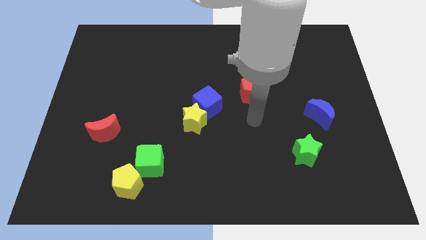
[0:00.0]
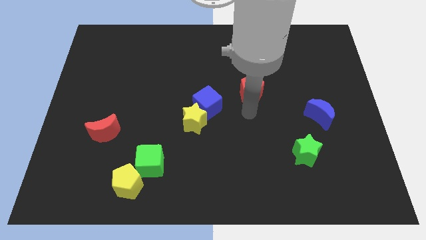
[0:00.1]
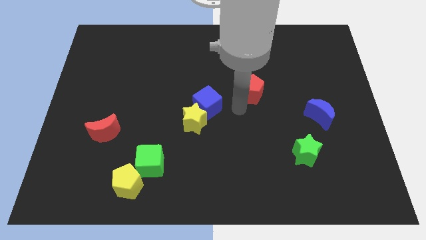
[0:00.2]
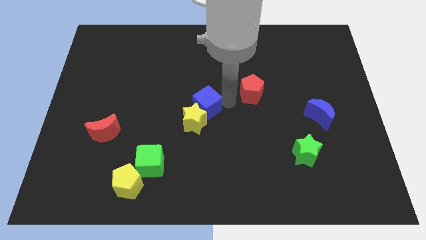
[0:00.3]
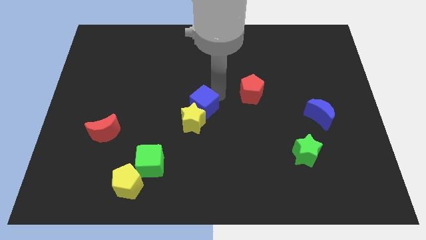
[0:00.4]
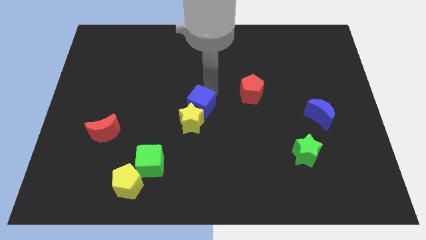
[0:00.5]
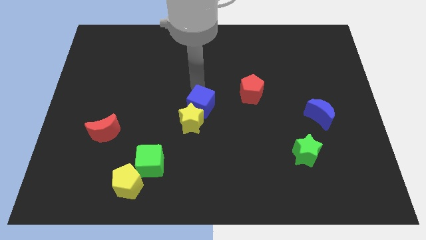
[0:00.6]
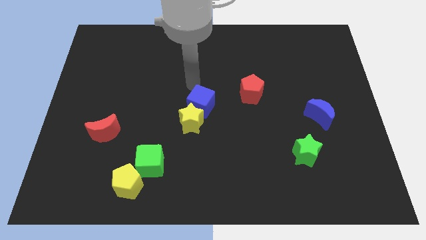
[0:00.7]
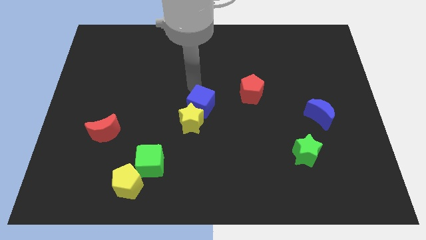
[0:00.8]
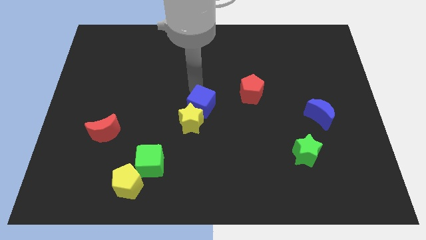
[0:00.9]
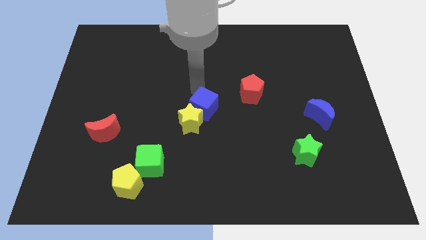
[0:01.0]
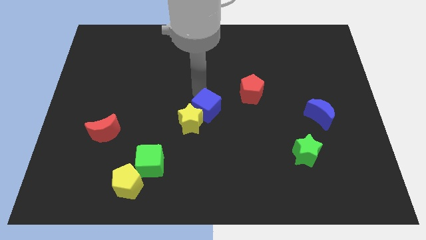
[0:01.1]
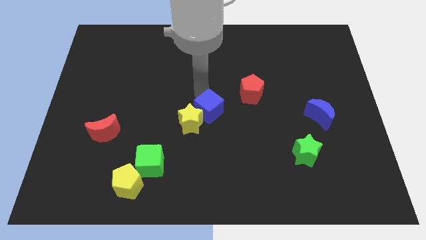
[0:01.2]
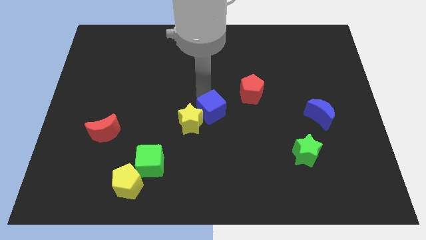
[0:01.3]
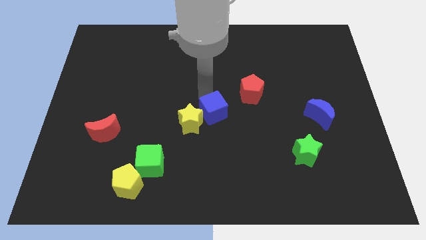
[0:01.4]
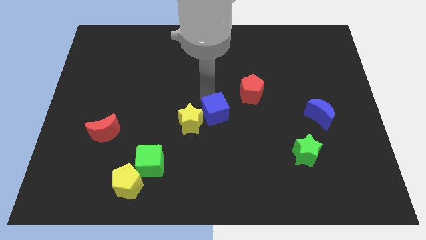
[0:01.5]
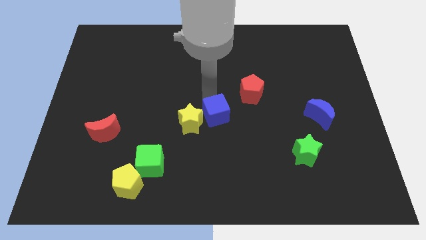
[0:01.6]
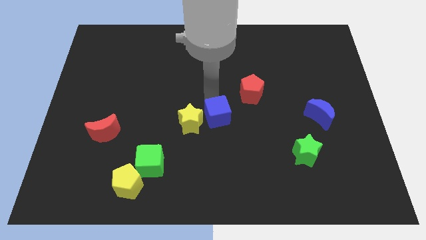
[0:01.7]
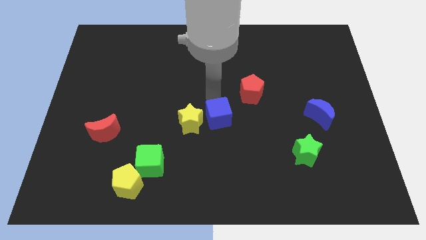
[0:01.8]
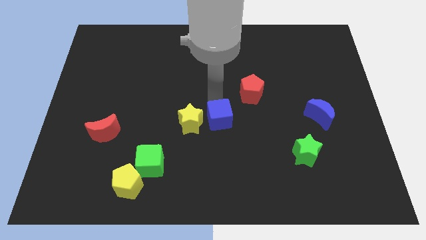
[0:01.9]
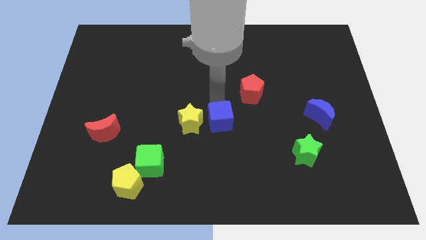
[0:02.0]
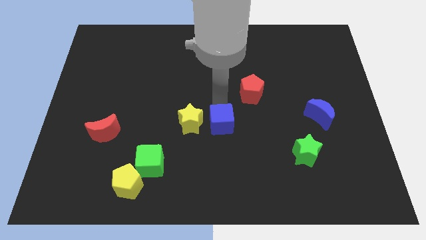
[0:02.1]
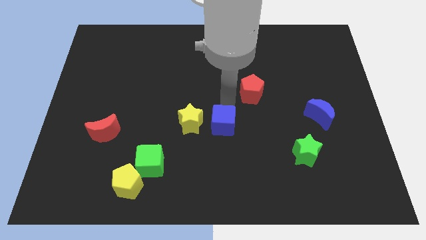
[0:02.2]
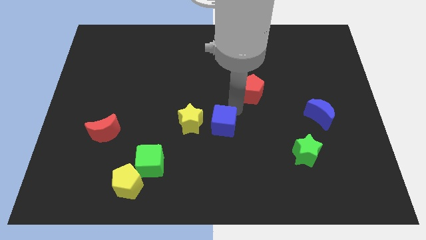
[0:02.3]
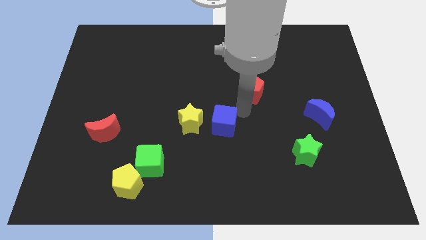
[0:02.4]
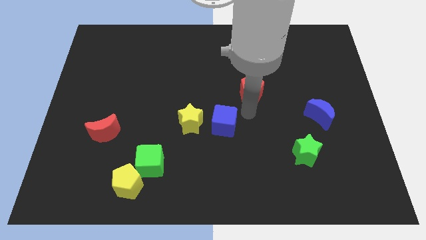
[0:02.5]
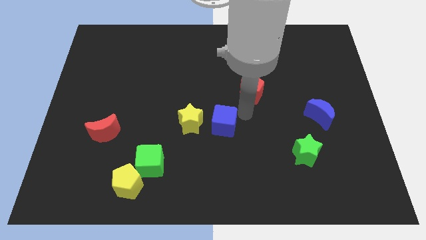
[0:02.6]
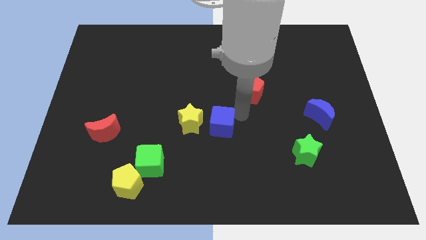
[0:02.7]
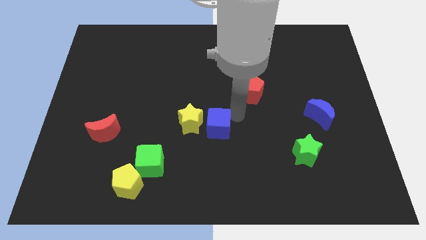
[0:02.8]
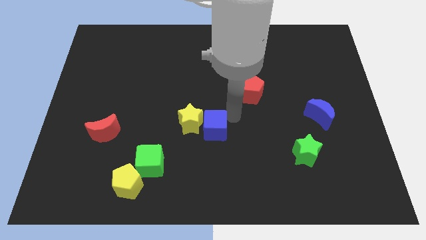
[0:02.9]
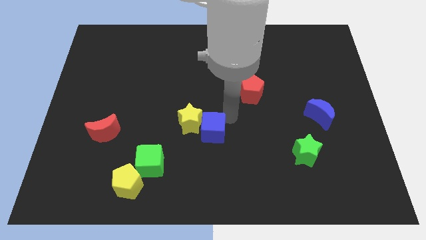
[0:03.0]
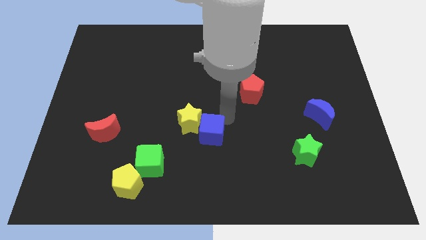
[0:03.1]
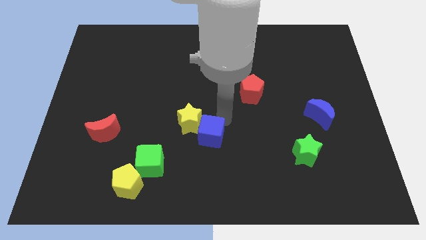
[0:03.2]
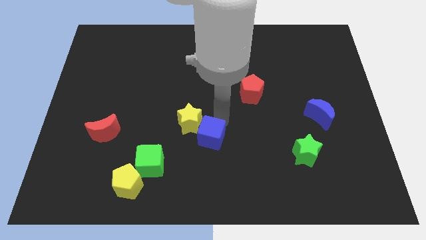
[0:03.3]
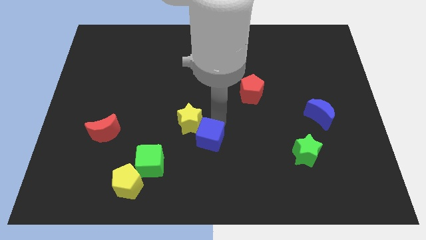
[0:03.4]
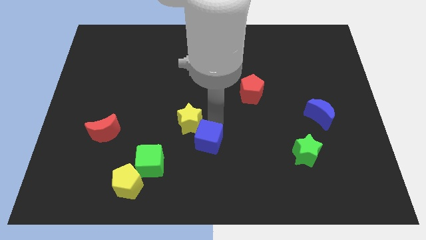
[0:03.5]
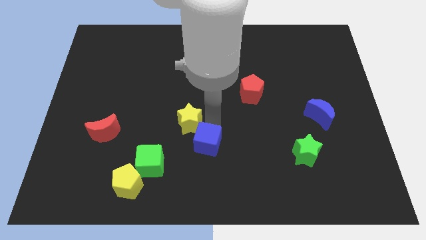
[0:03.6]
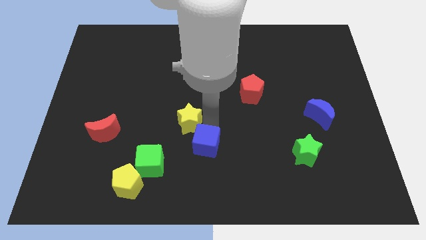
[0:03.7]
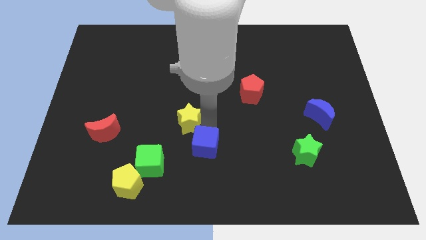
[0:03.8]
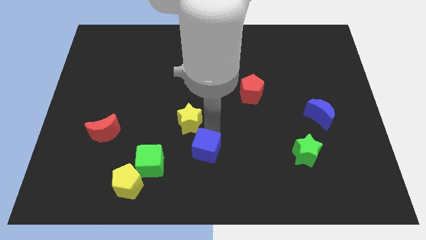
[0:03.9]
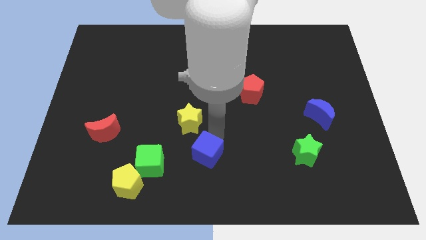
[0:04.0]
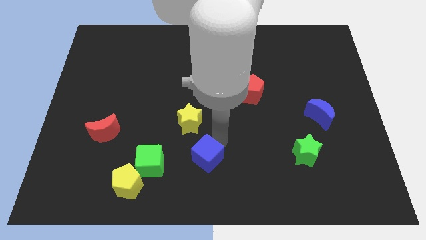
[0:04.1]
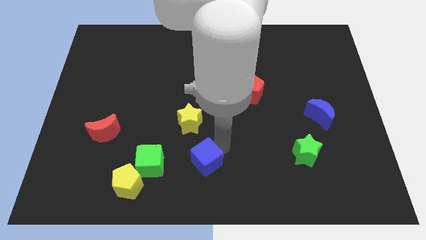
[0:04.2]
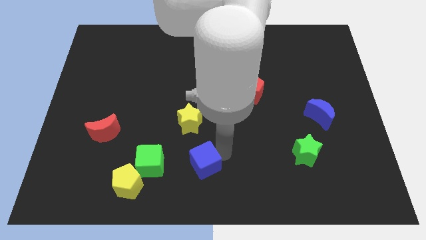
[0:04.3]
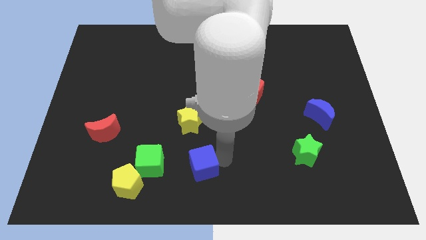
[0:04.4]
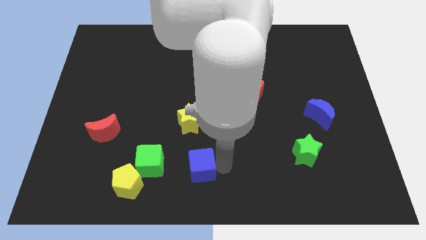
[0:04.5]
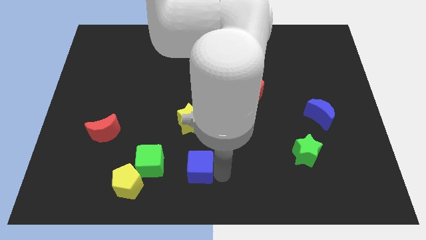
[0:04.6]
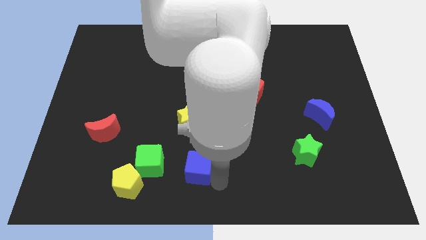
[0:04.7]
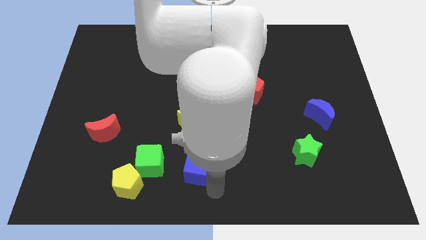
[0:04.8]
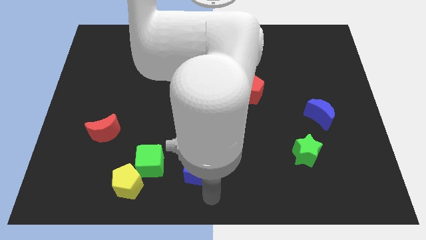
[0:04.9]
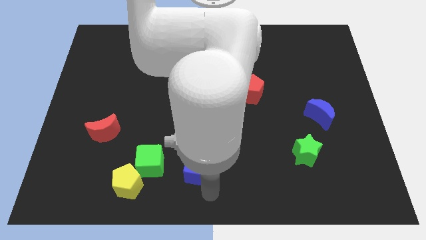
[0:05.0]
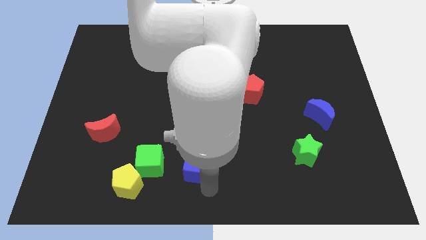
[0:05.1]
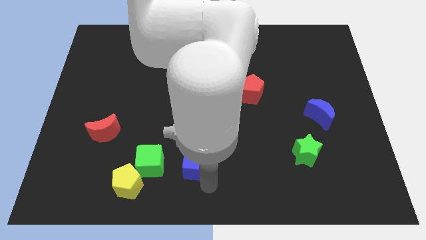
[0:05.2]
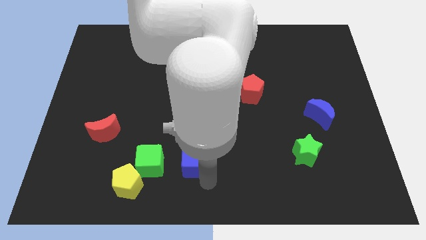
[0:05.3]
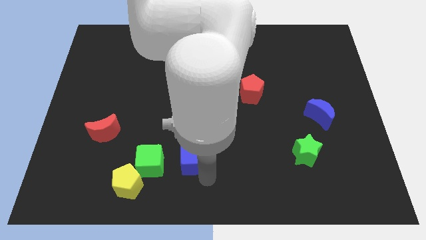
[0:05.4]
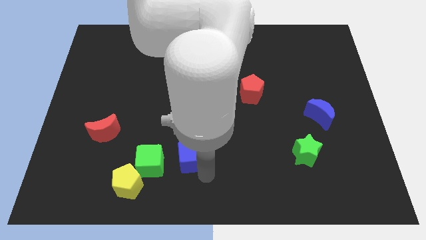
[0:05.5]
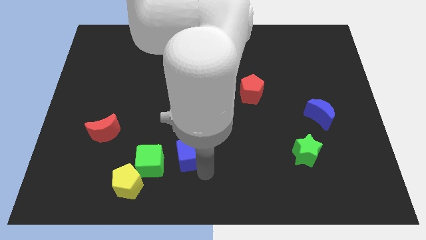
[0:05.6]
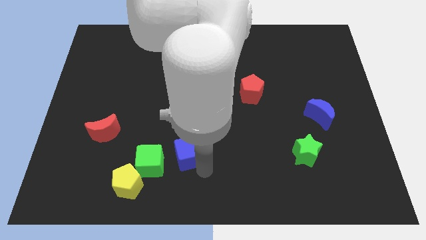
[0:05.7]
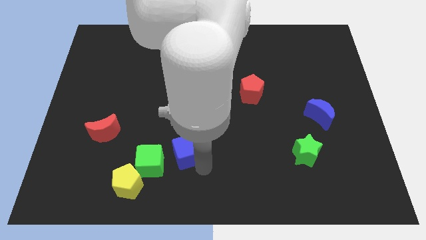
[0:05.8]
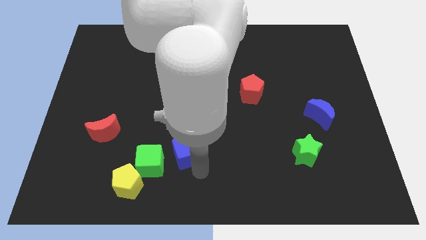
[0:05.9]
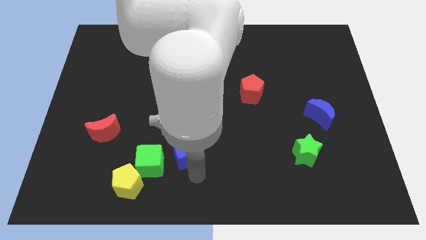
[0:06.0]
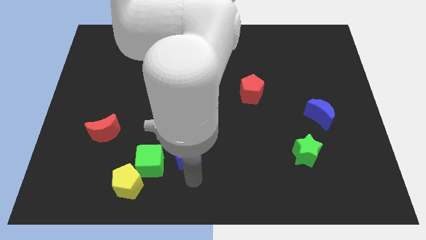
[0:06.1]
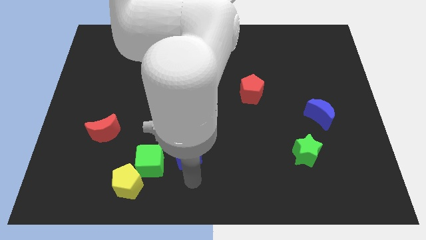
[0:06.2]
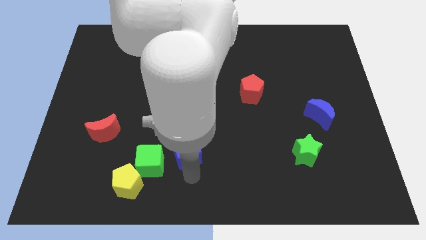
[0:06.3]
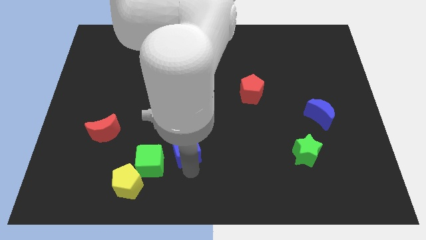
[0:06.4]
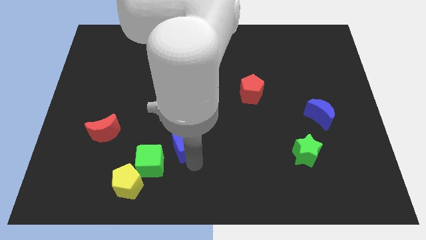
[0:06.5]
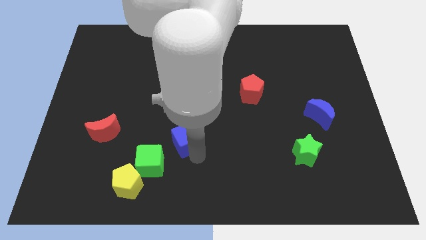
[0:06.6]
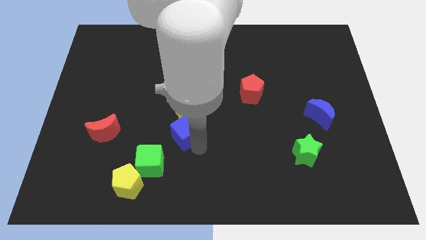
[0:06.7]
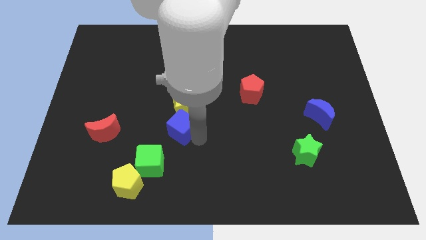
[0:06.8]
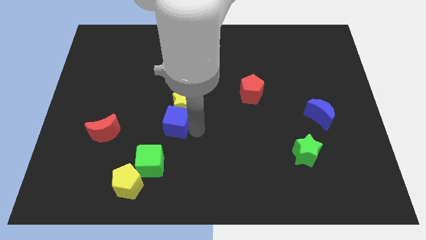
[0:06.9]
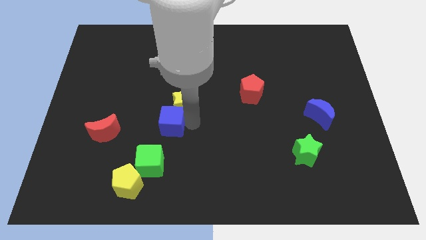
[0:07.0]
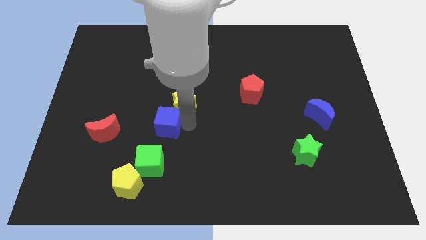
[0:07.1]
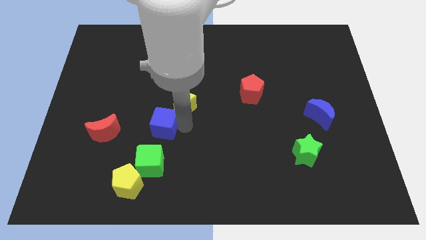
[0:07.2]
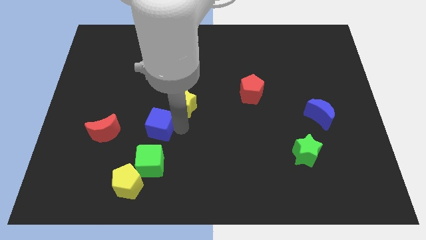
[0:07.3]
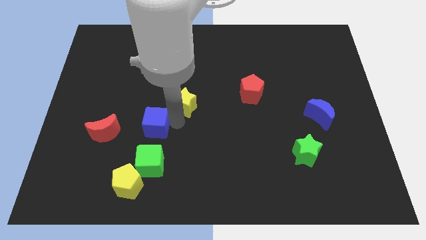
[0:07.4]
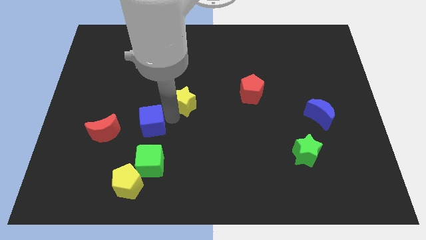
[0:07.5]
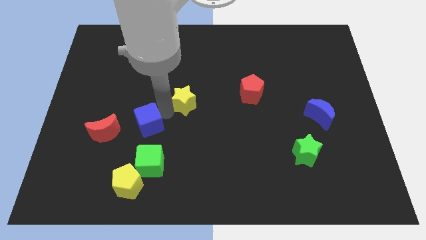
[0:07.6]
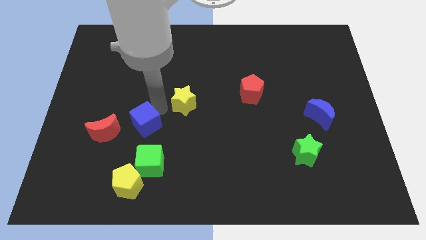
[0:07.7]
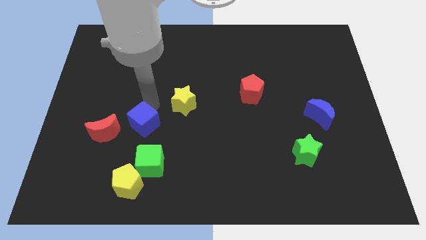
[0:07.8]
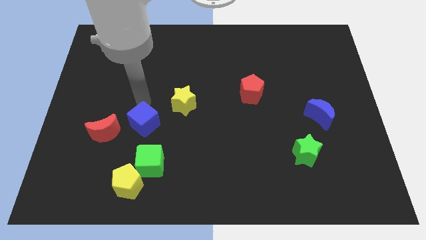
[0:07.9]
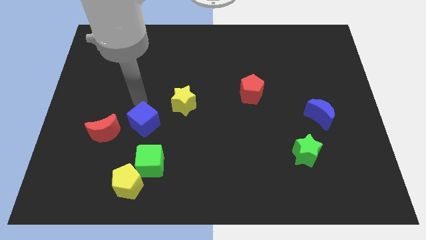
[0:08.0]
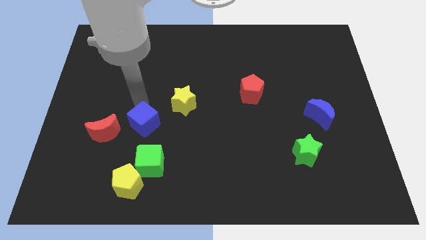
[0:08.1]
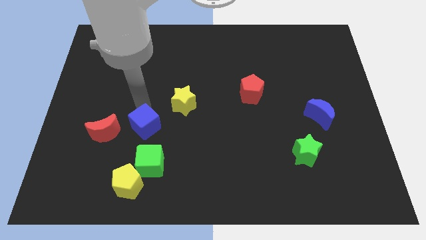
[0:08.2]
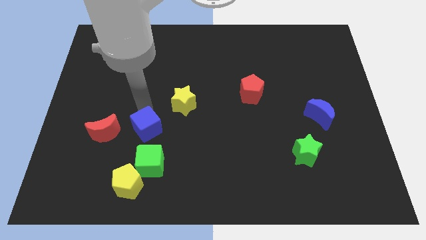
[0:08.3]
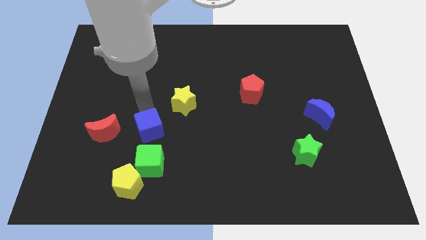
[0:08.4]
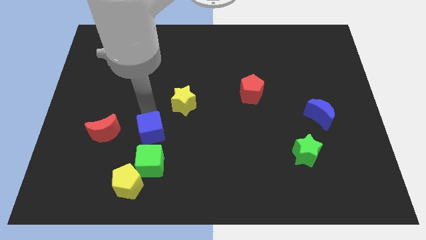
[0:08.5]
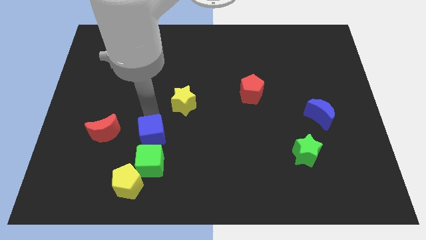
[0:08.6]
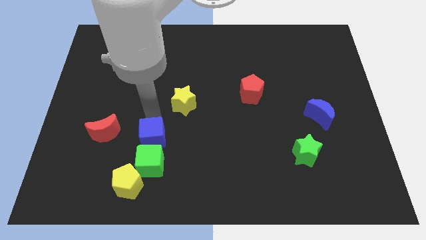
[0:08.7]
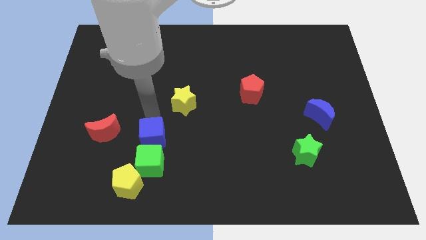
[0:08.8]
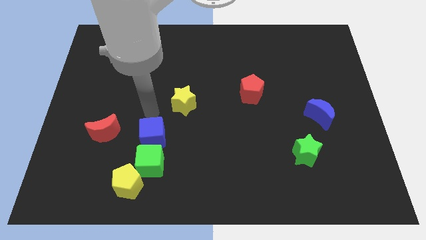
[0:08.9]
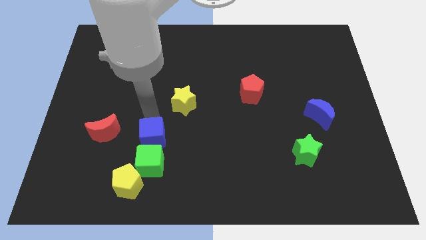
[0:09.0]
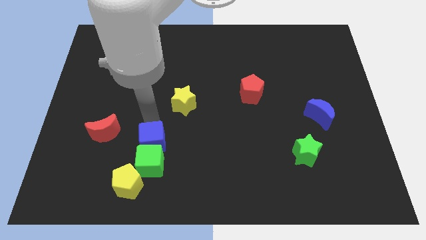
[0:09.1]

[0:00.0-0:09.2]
put the blue cube to the top right of the yellow pentagon
